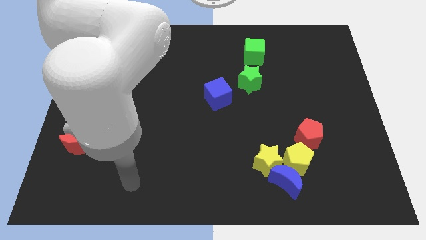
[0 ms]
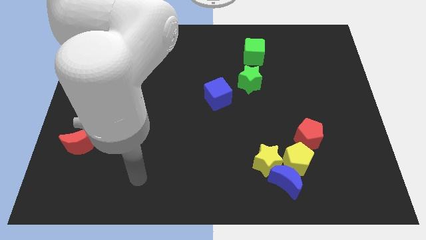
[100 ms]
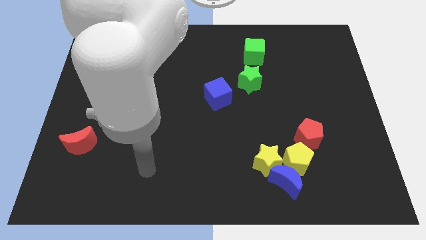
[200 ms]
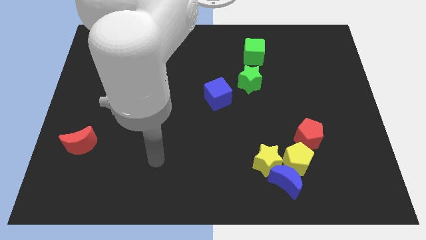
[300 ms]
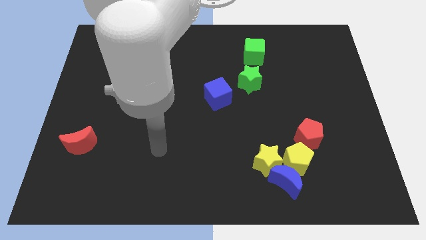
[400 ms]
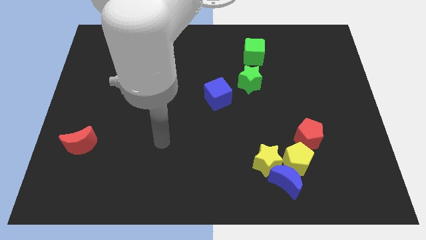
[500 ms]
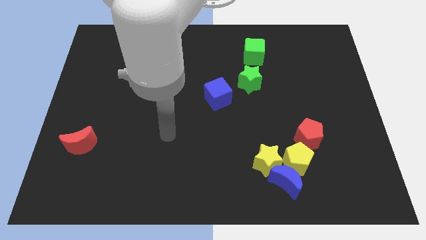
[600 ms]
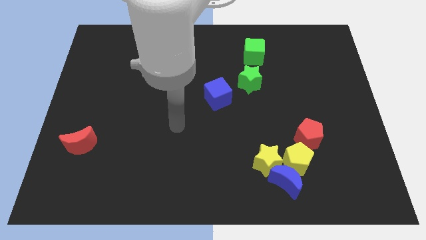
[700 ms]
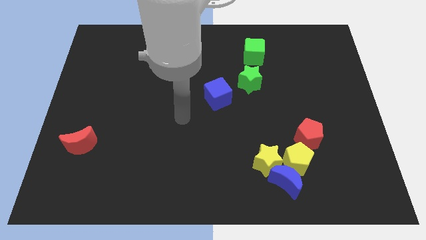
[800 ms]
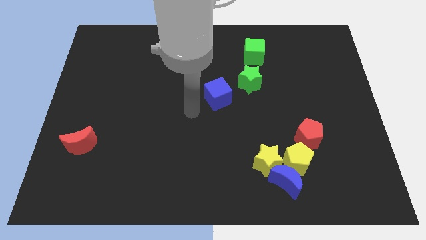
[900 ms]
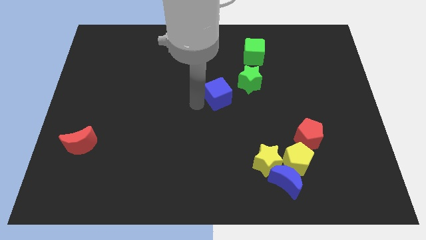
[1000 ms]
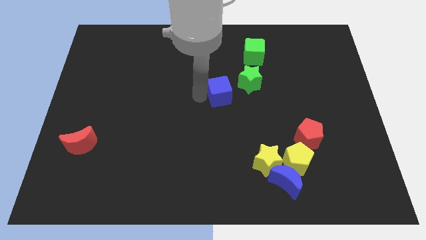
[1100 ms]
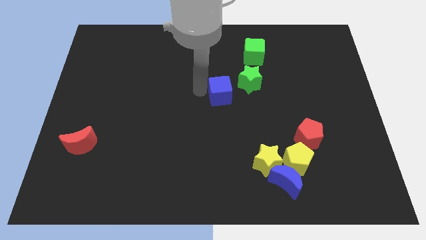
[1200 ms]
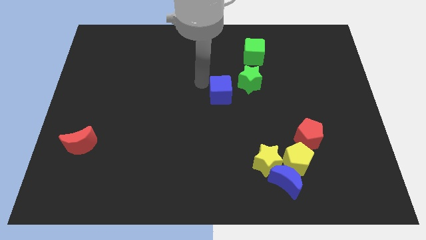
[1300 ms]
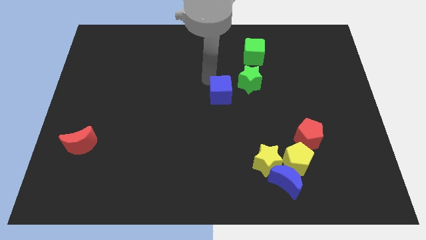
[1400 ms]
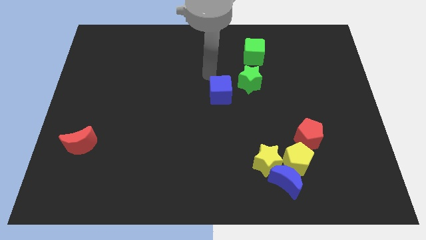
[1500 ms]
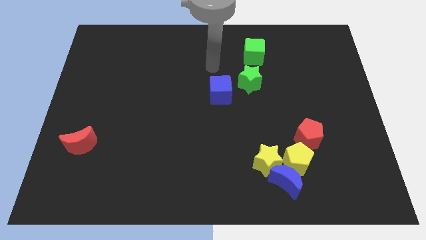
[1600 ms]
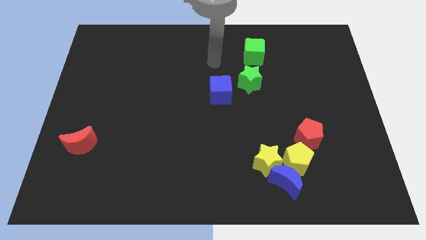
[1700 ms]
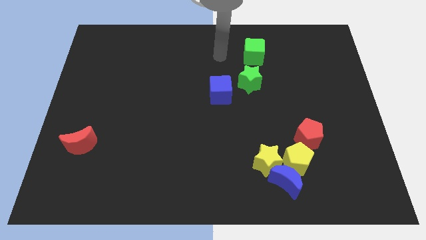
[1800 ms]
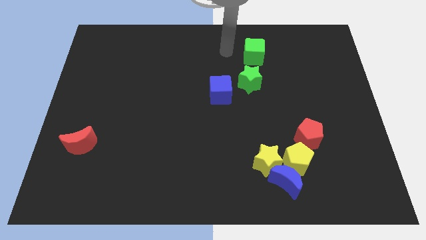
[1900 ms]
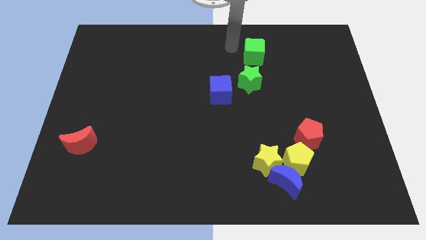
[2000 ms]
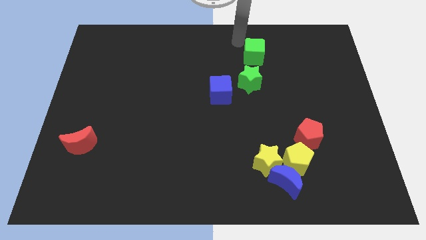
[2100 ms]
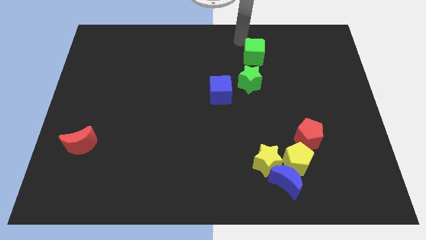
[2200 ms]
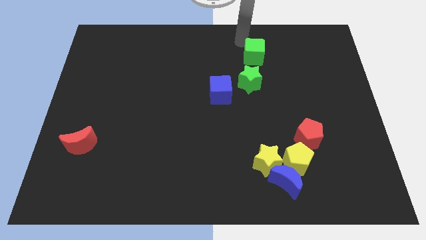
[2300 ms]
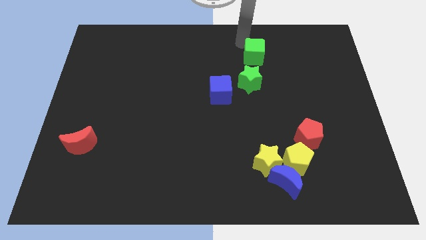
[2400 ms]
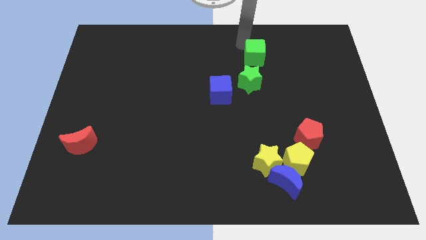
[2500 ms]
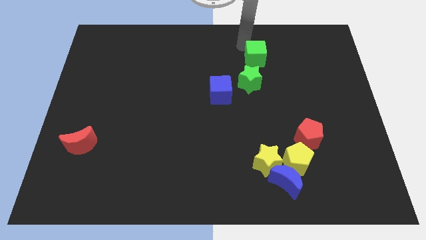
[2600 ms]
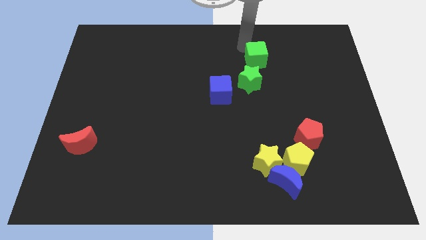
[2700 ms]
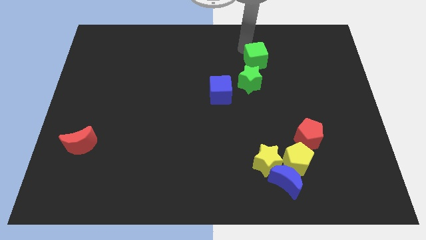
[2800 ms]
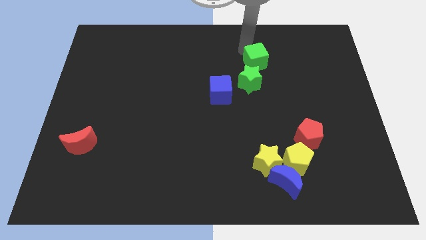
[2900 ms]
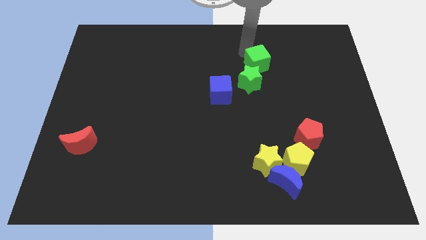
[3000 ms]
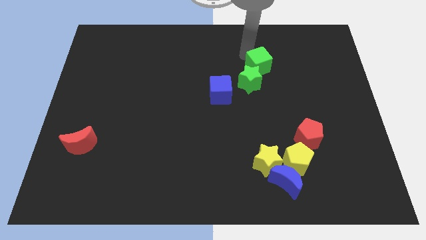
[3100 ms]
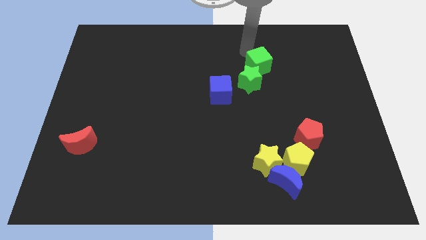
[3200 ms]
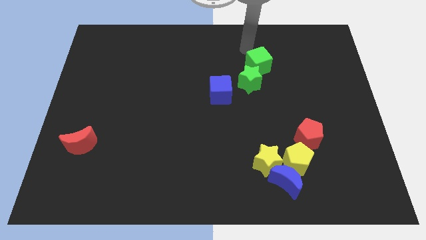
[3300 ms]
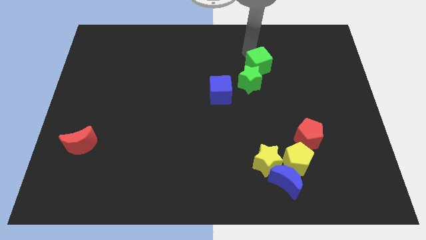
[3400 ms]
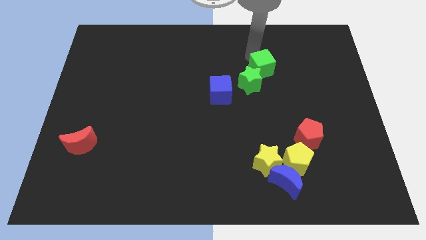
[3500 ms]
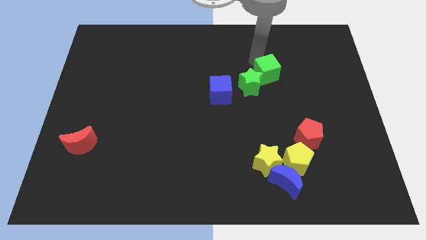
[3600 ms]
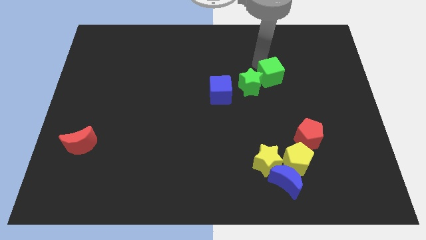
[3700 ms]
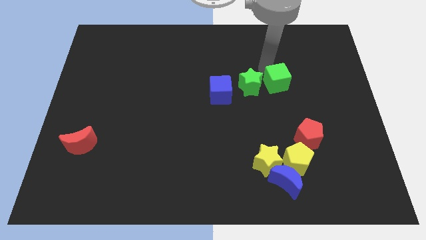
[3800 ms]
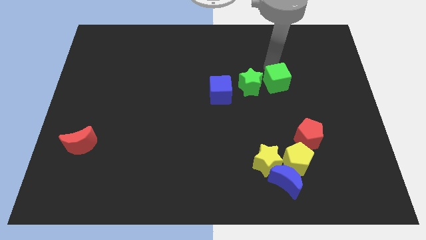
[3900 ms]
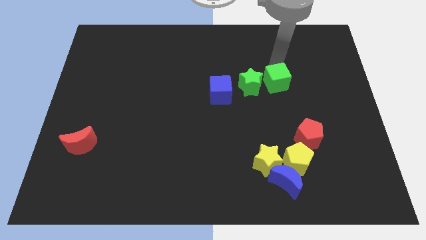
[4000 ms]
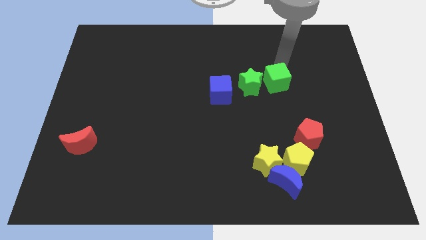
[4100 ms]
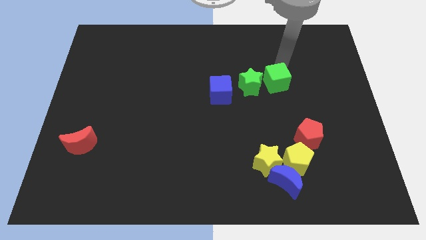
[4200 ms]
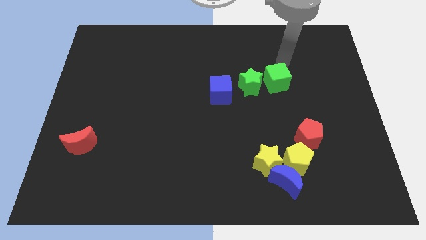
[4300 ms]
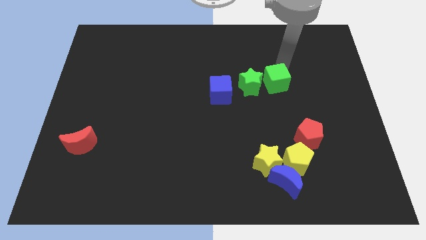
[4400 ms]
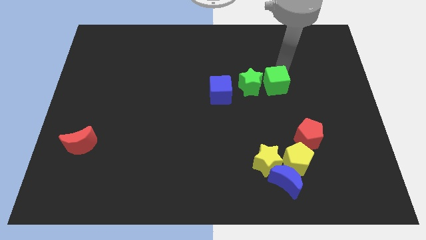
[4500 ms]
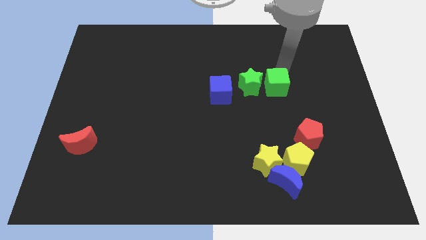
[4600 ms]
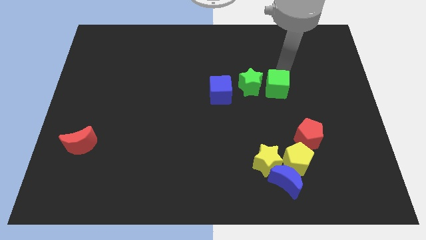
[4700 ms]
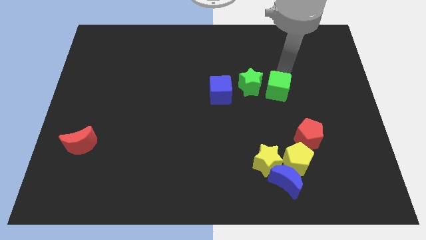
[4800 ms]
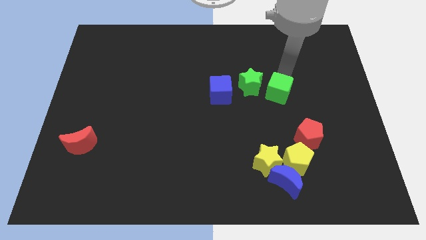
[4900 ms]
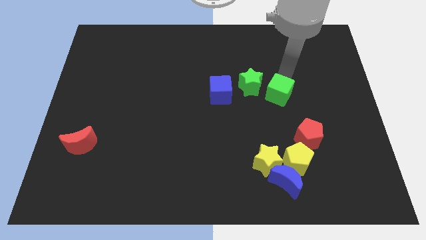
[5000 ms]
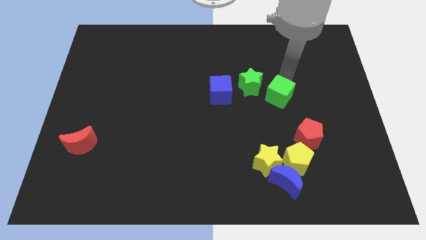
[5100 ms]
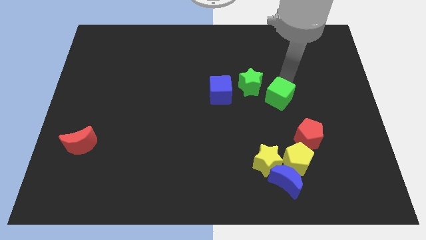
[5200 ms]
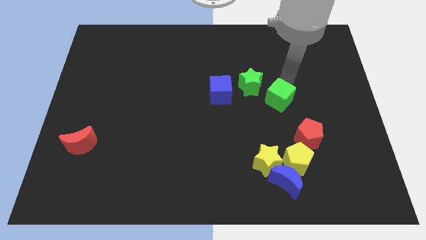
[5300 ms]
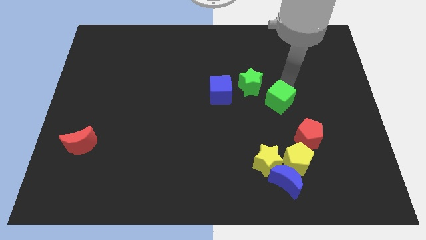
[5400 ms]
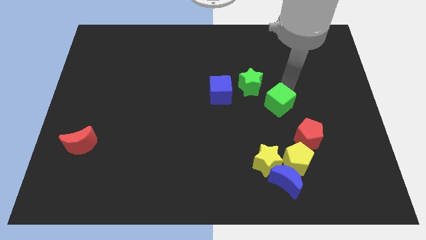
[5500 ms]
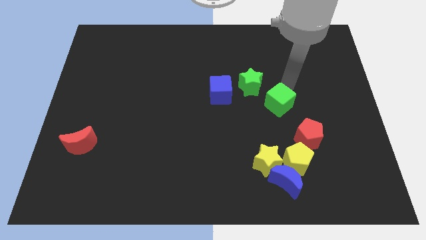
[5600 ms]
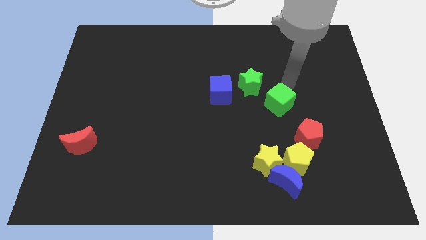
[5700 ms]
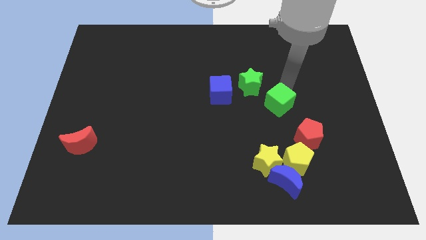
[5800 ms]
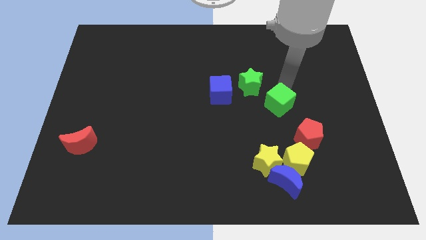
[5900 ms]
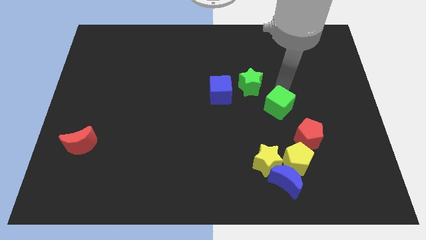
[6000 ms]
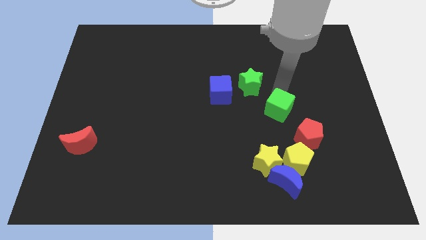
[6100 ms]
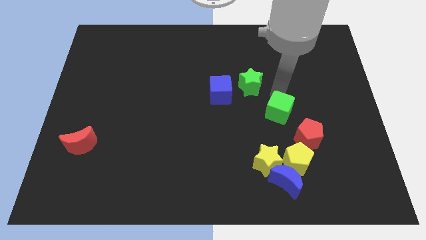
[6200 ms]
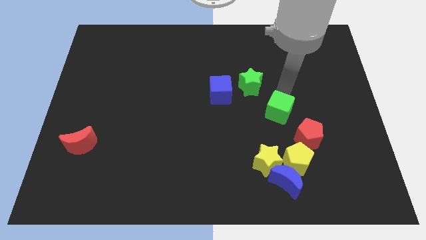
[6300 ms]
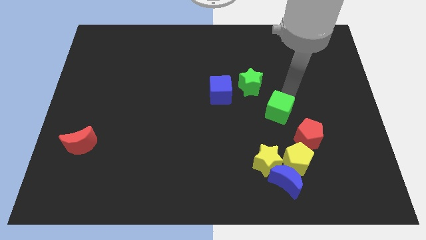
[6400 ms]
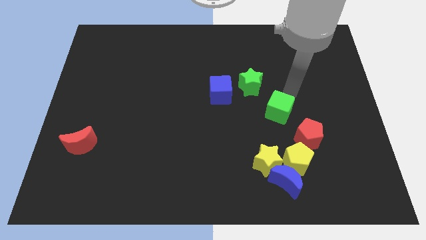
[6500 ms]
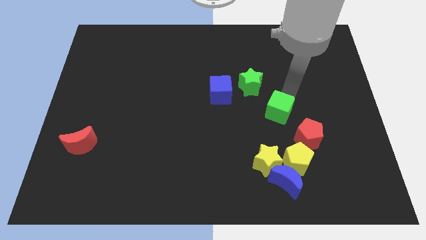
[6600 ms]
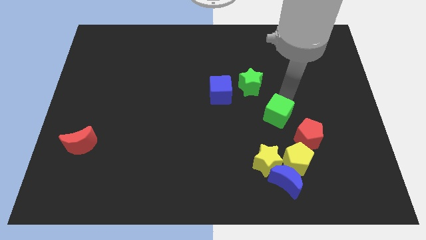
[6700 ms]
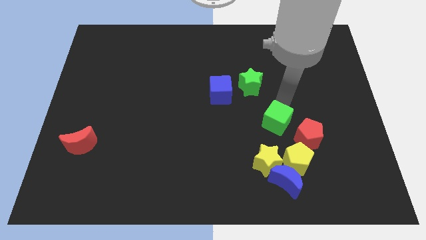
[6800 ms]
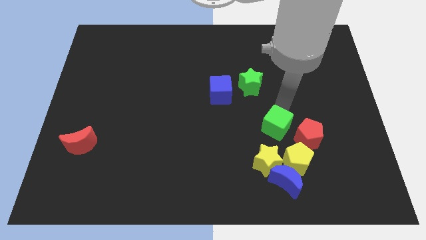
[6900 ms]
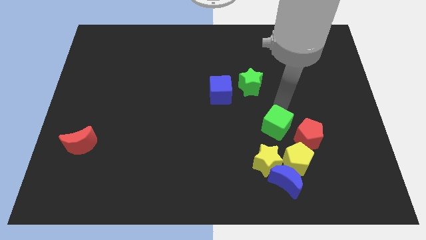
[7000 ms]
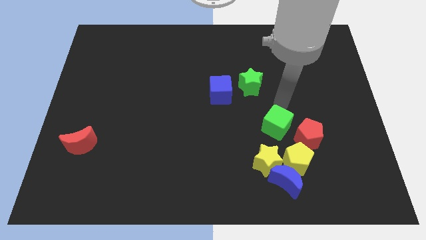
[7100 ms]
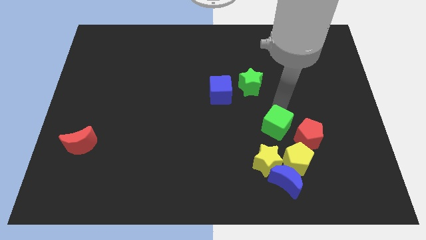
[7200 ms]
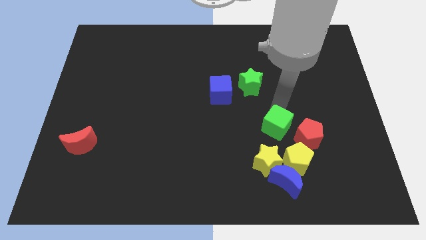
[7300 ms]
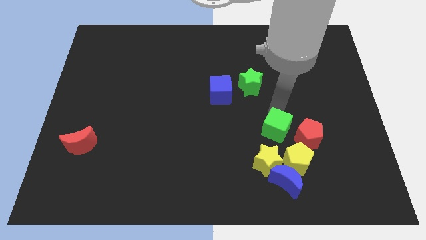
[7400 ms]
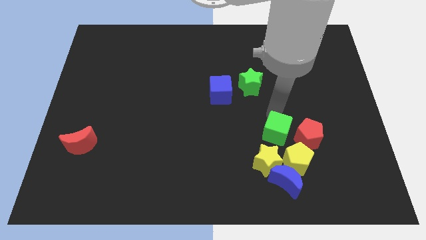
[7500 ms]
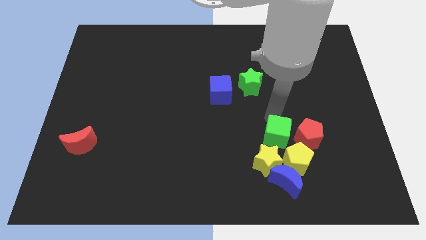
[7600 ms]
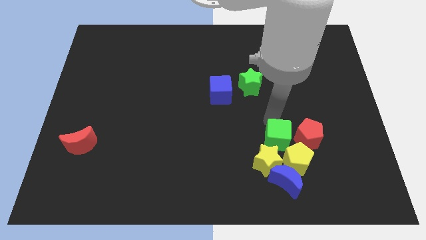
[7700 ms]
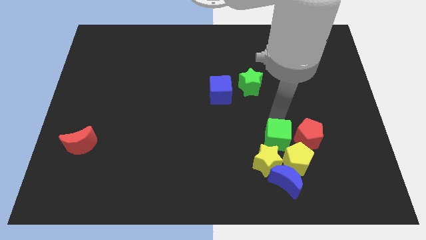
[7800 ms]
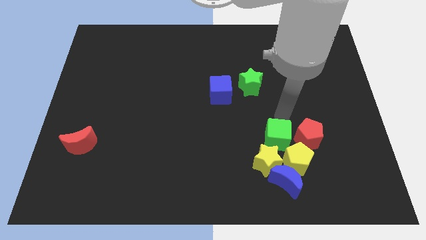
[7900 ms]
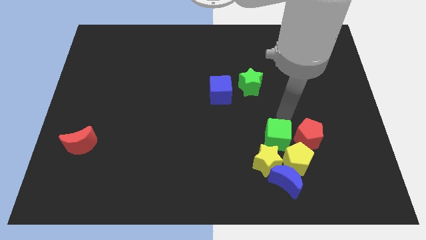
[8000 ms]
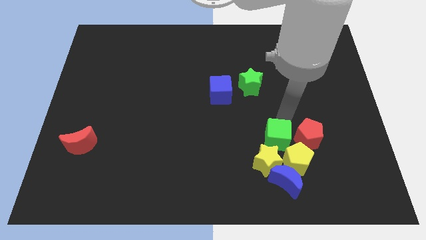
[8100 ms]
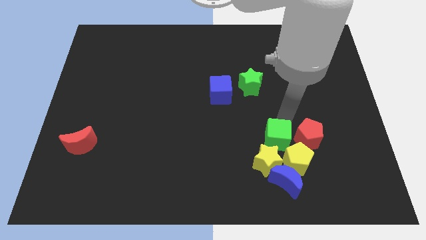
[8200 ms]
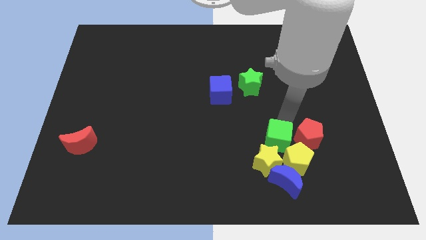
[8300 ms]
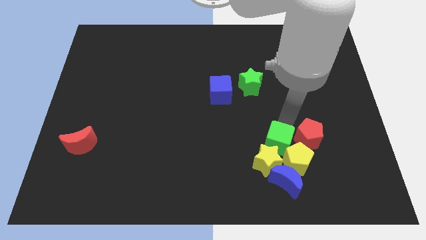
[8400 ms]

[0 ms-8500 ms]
move the green cube next to the yellow star

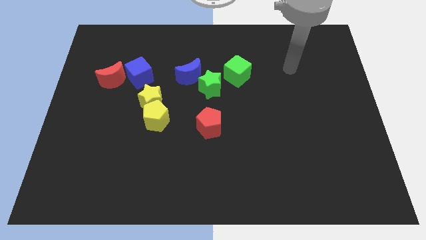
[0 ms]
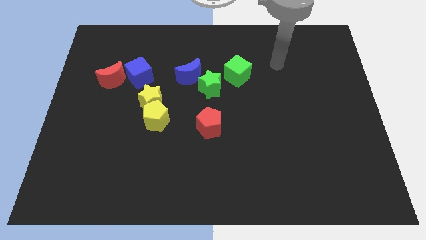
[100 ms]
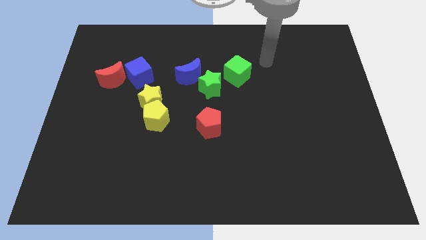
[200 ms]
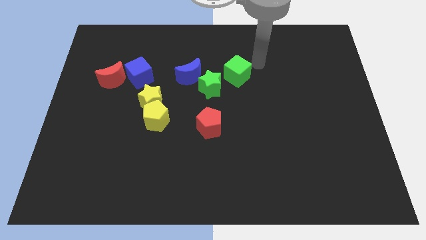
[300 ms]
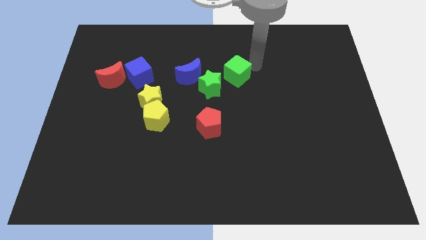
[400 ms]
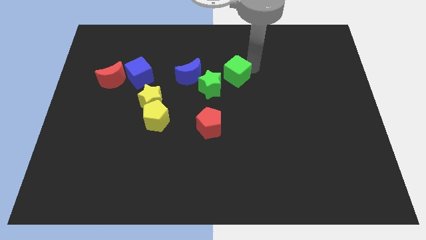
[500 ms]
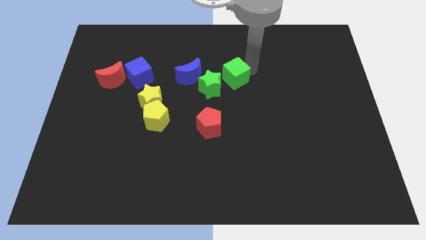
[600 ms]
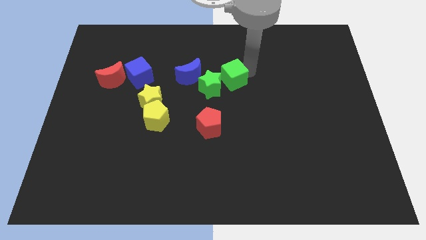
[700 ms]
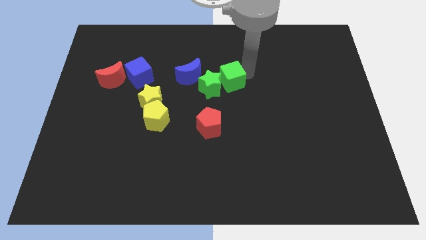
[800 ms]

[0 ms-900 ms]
push the green cube next to the green star
